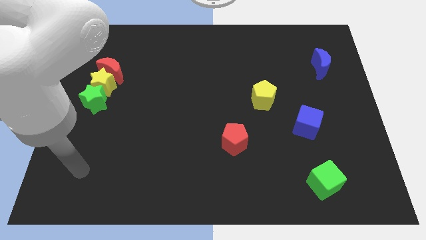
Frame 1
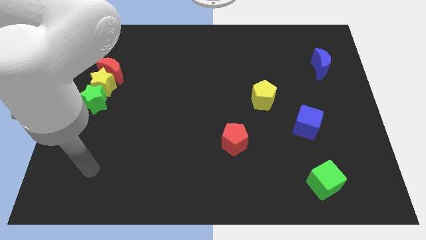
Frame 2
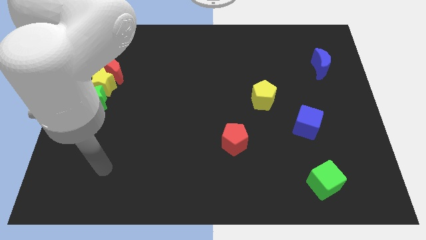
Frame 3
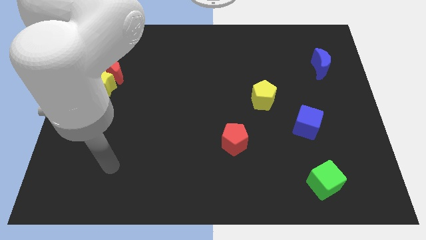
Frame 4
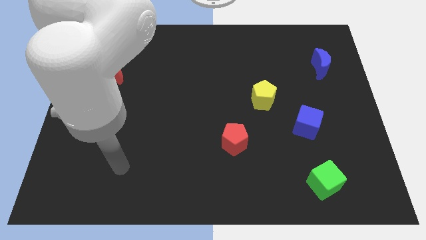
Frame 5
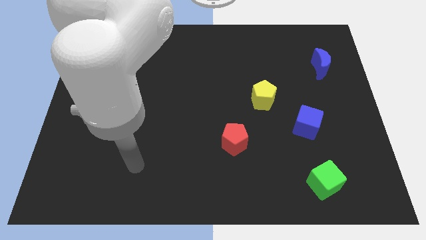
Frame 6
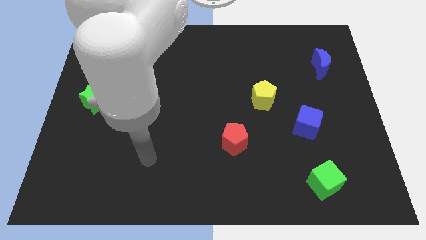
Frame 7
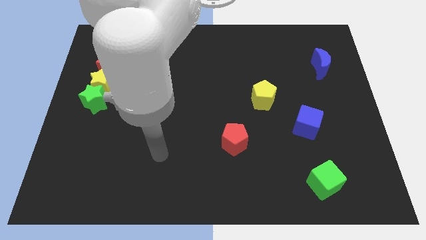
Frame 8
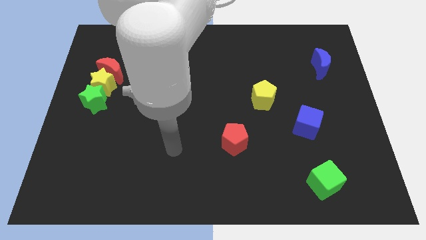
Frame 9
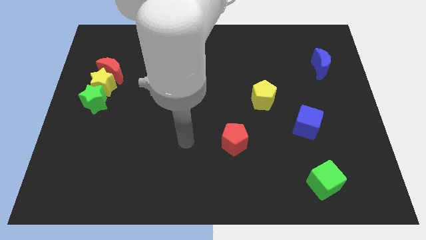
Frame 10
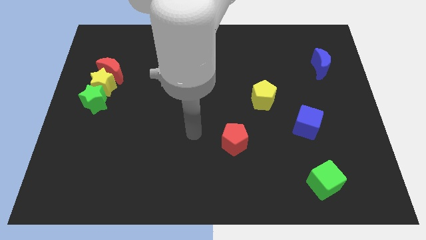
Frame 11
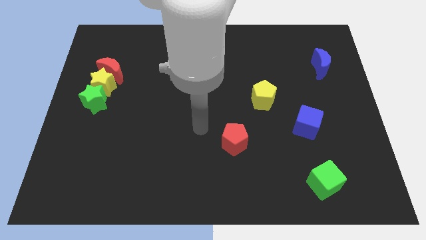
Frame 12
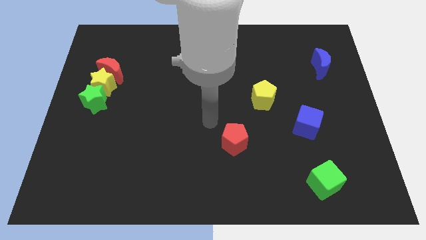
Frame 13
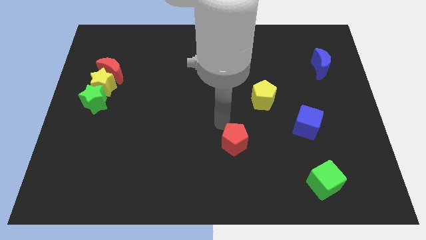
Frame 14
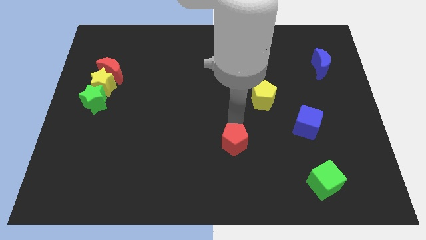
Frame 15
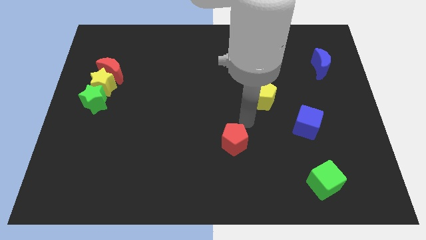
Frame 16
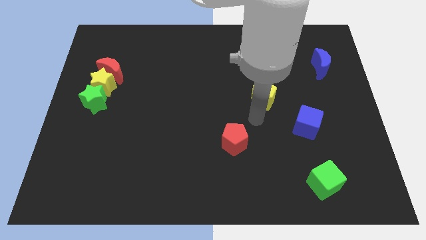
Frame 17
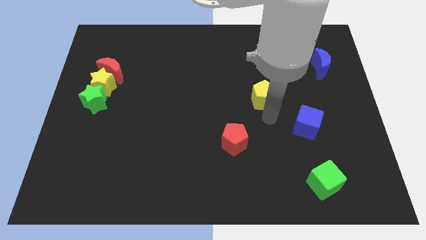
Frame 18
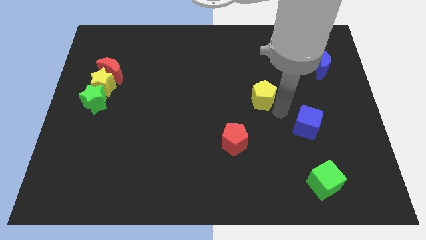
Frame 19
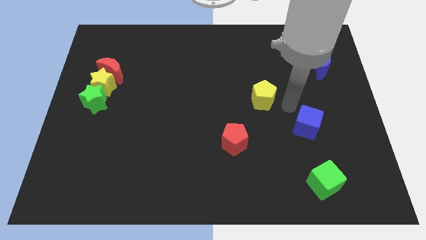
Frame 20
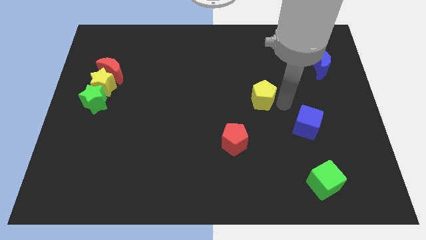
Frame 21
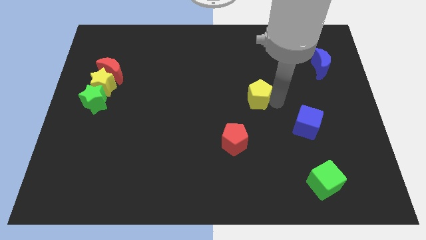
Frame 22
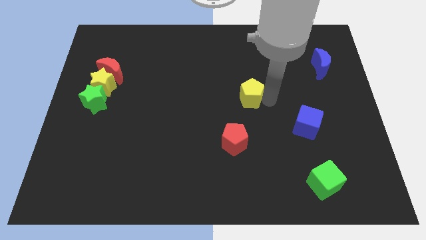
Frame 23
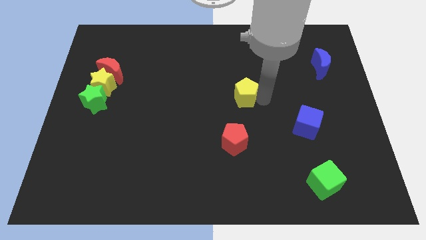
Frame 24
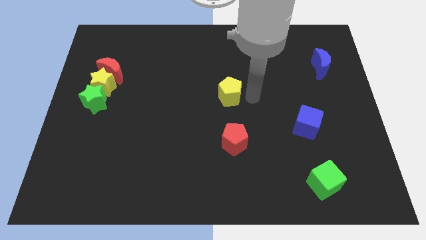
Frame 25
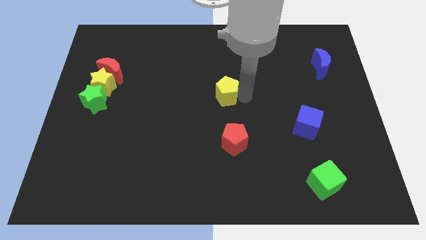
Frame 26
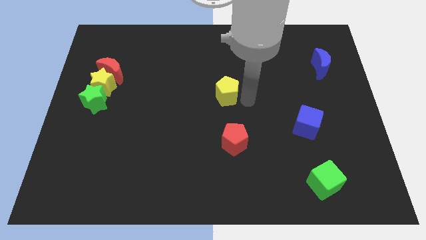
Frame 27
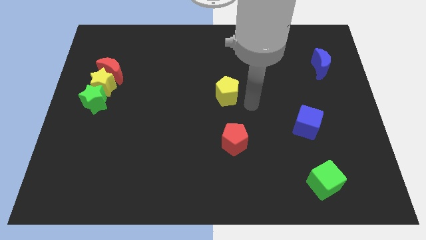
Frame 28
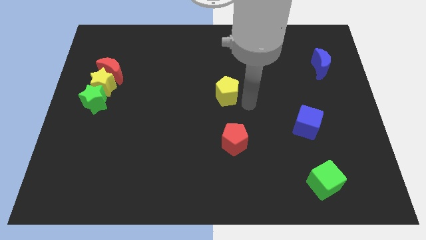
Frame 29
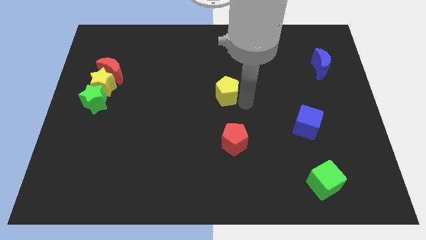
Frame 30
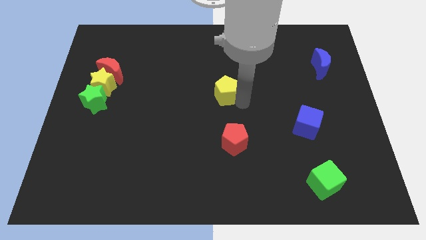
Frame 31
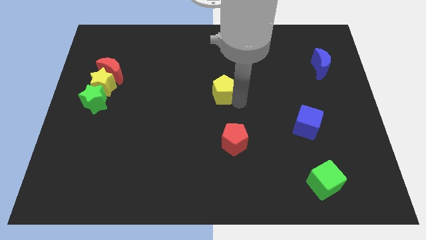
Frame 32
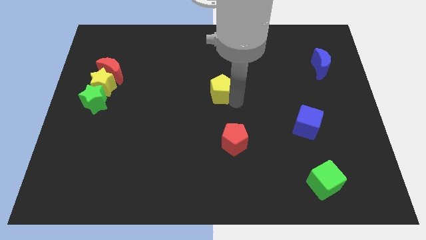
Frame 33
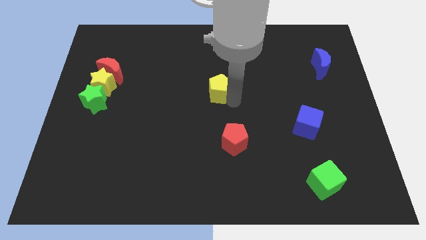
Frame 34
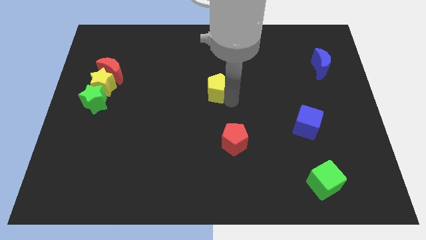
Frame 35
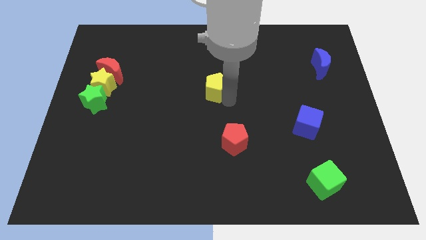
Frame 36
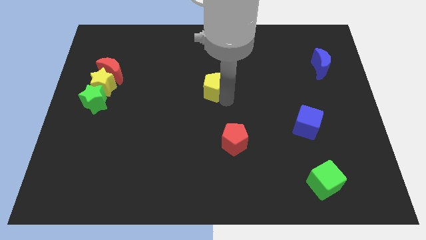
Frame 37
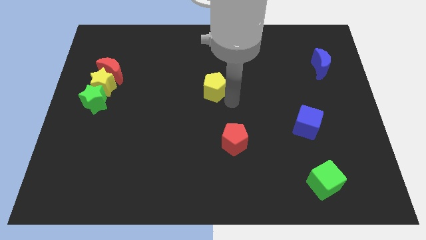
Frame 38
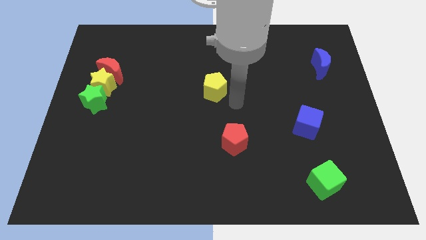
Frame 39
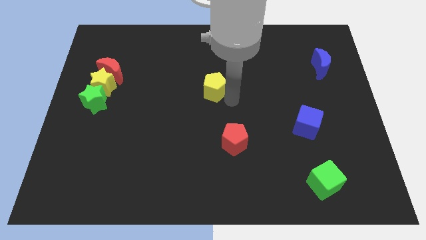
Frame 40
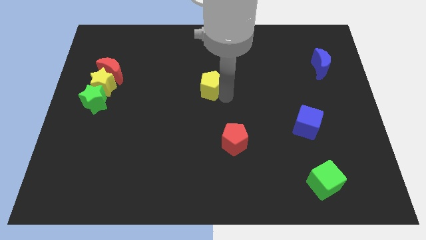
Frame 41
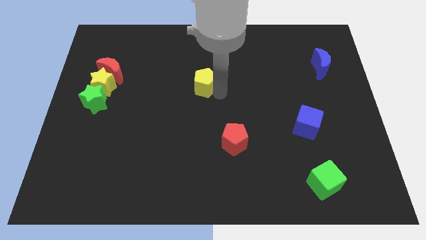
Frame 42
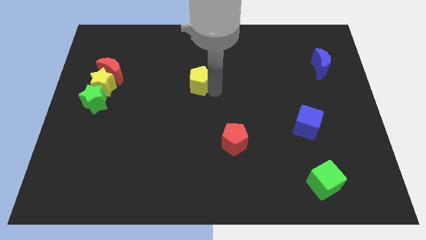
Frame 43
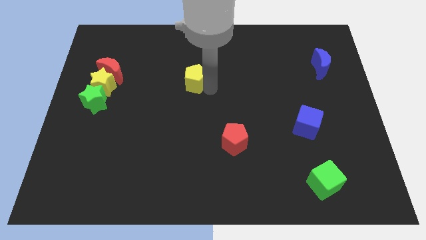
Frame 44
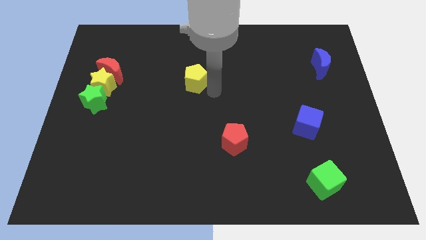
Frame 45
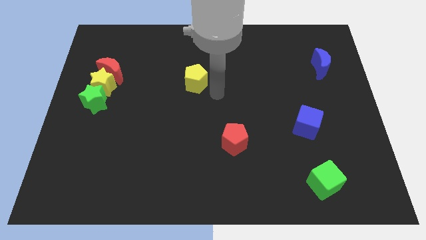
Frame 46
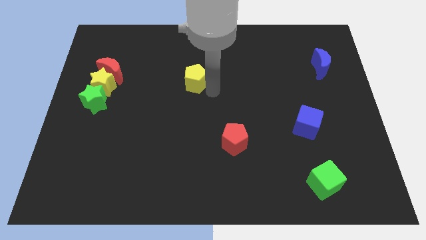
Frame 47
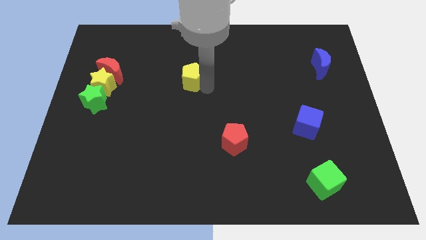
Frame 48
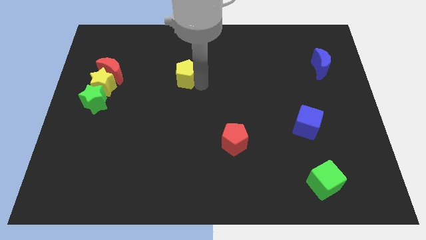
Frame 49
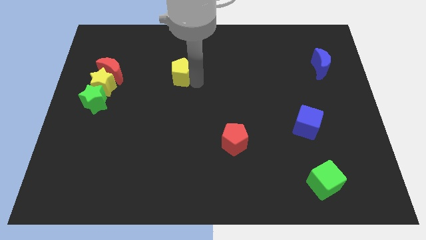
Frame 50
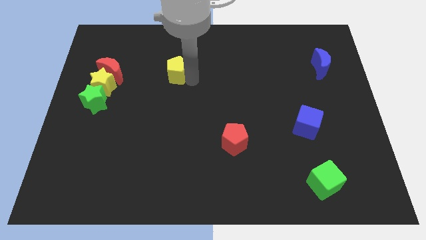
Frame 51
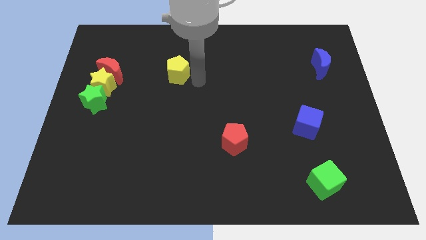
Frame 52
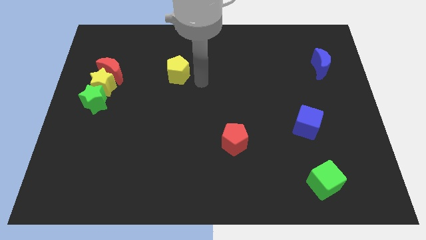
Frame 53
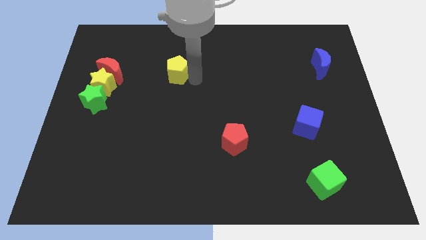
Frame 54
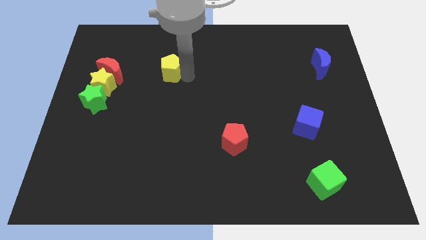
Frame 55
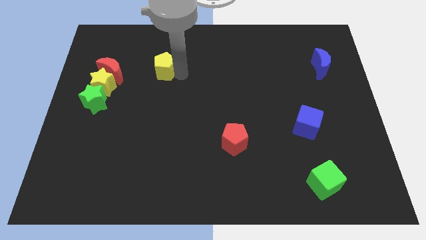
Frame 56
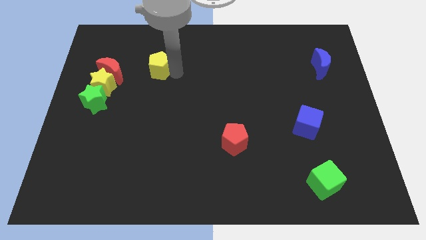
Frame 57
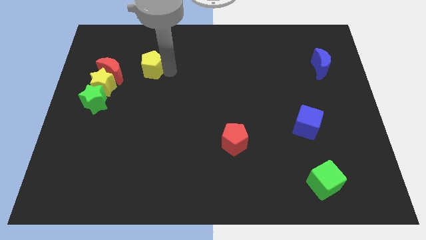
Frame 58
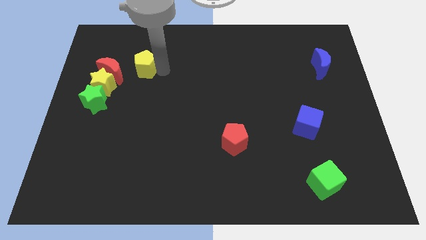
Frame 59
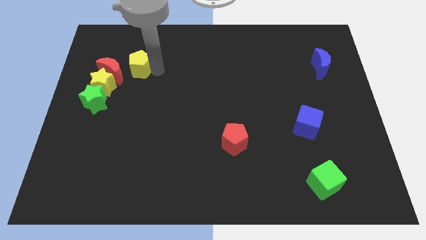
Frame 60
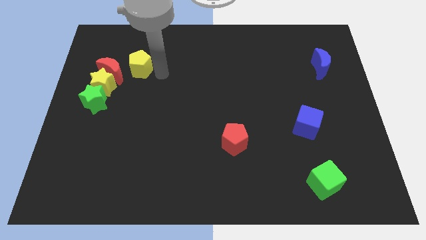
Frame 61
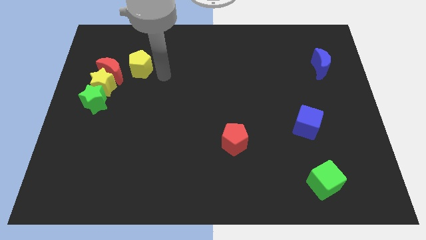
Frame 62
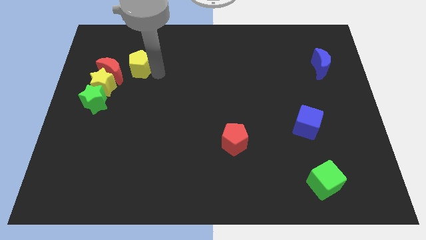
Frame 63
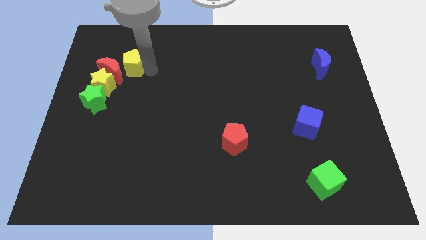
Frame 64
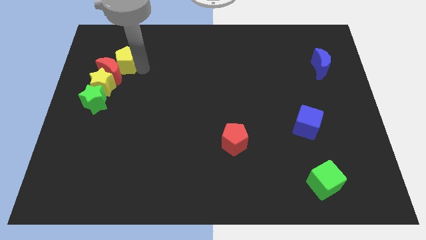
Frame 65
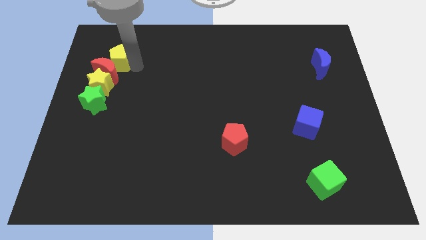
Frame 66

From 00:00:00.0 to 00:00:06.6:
push the yellow pentagon to the top of the yellow star

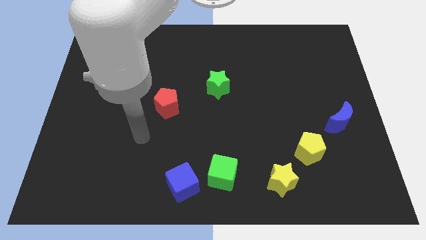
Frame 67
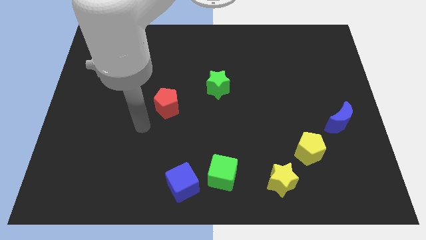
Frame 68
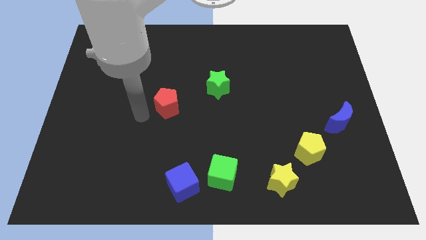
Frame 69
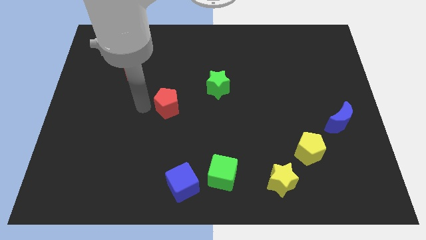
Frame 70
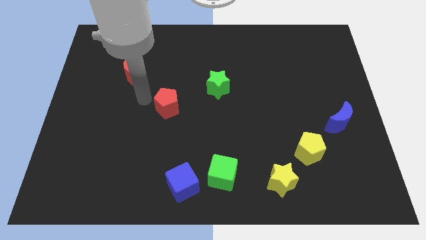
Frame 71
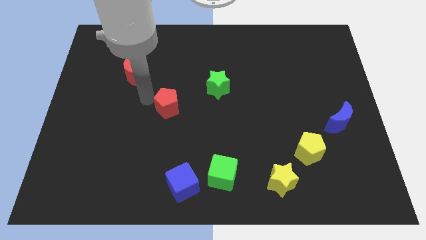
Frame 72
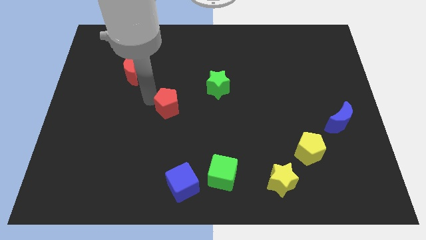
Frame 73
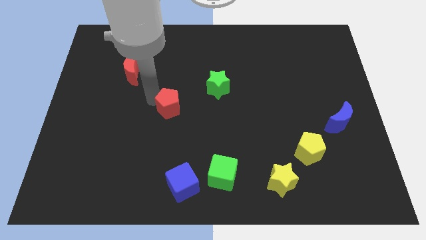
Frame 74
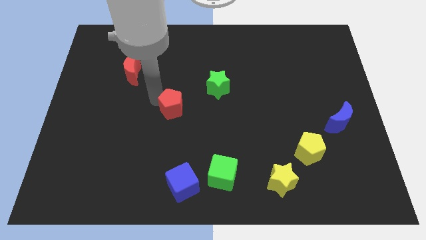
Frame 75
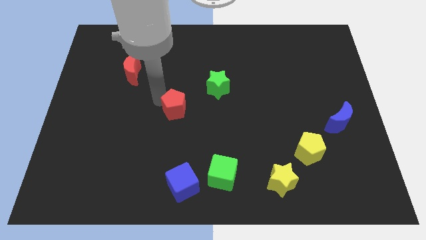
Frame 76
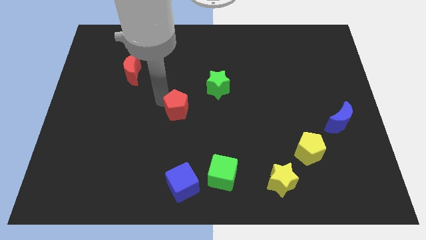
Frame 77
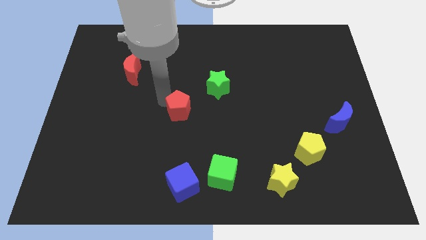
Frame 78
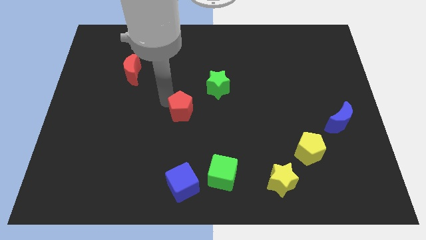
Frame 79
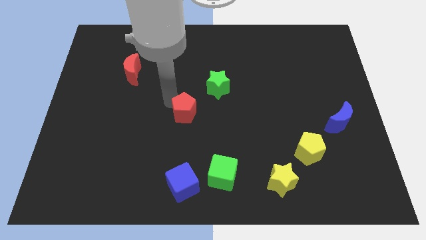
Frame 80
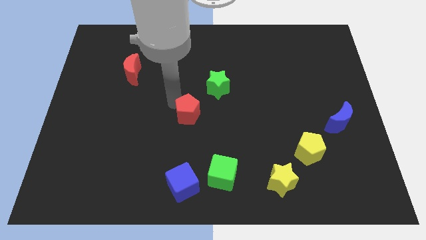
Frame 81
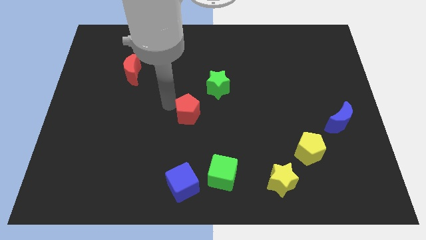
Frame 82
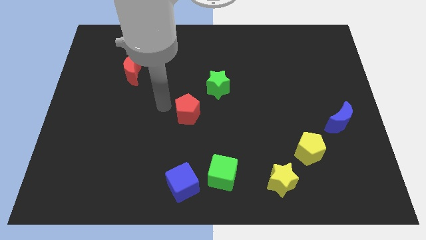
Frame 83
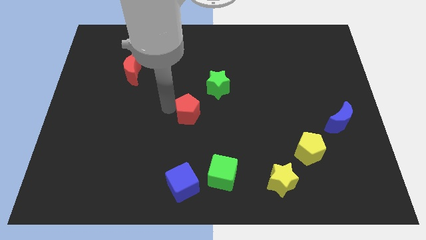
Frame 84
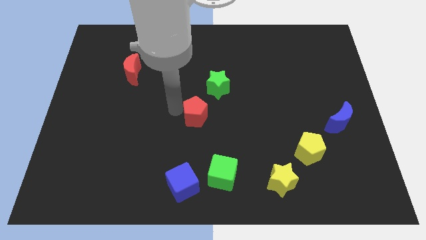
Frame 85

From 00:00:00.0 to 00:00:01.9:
push the red pentagon to the bottom of the green star
